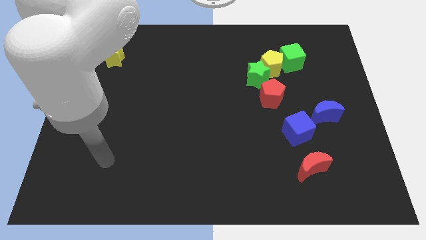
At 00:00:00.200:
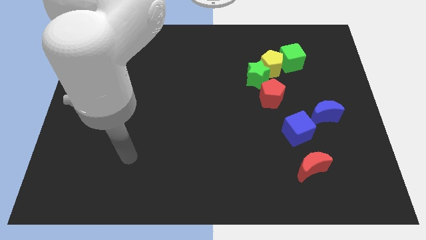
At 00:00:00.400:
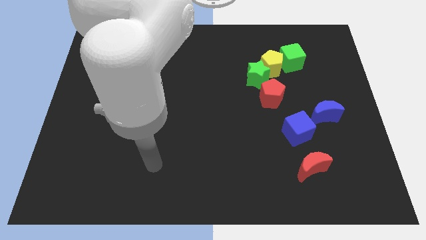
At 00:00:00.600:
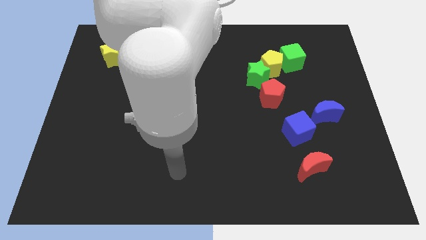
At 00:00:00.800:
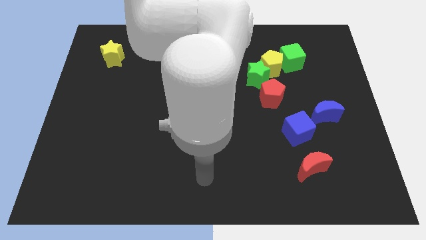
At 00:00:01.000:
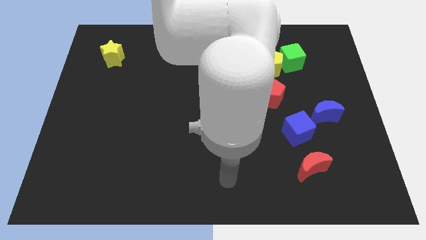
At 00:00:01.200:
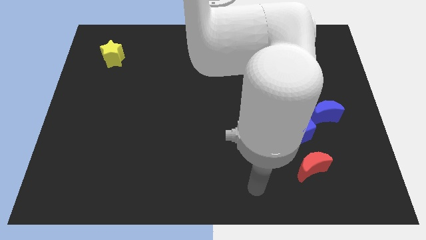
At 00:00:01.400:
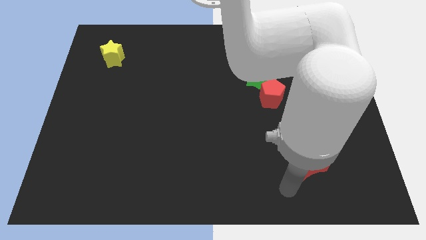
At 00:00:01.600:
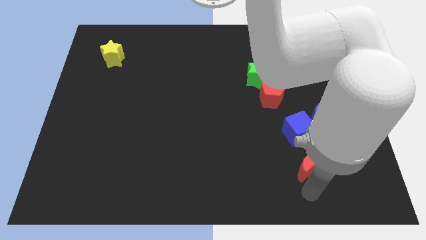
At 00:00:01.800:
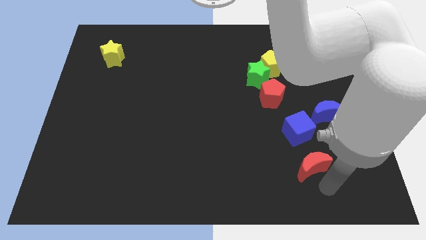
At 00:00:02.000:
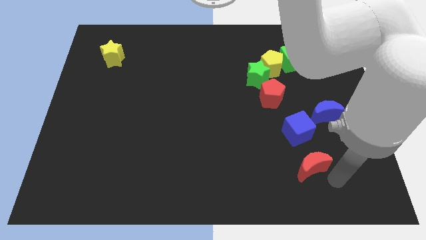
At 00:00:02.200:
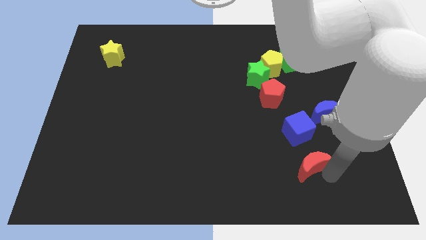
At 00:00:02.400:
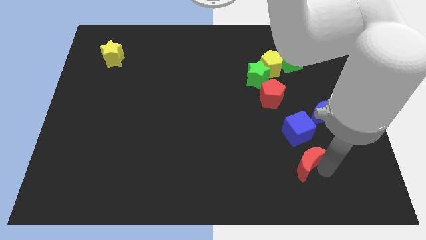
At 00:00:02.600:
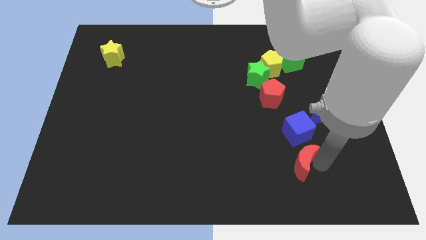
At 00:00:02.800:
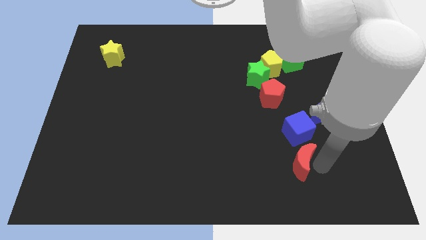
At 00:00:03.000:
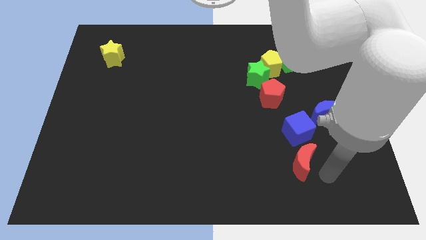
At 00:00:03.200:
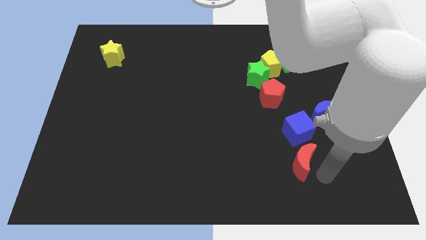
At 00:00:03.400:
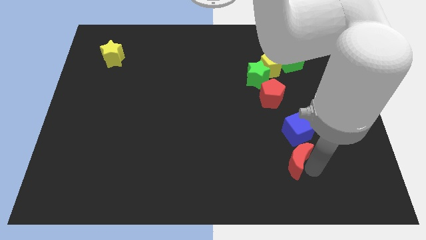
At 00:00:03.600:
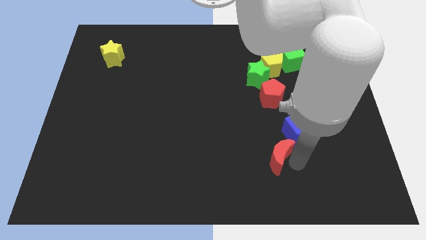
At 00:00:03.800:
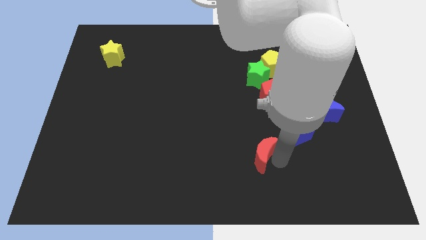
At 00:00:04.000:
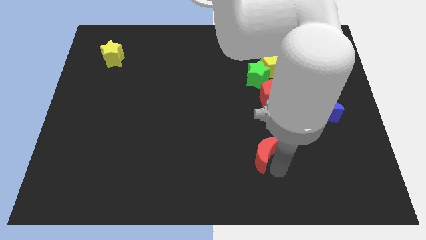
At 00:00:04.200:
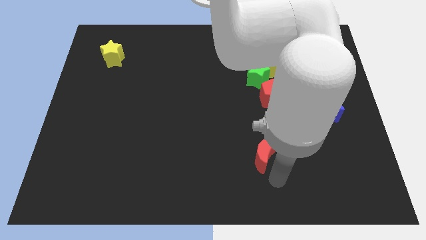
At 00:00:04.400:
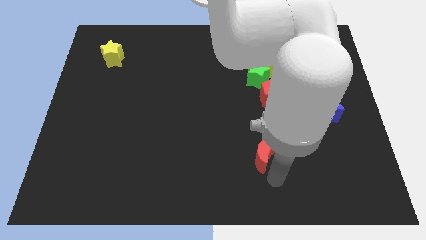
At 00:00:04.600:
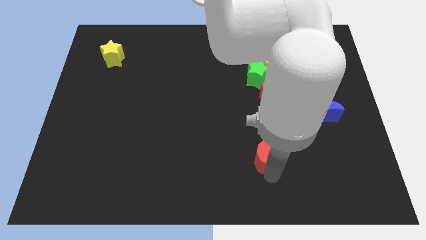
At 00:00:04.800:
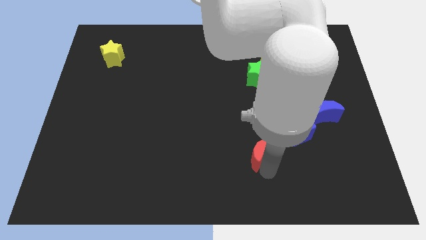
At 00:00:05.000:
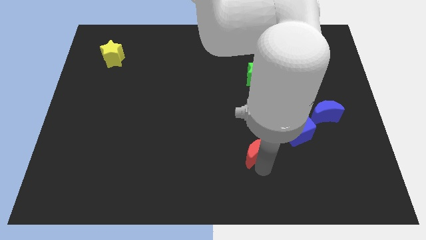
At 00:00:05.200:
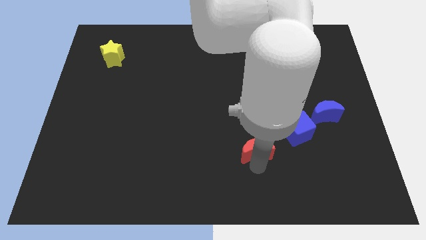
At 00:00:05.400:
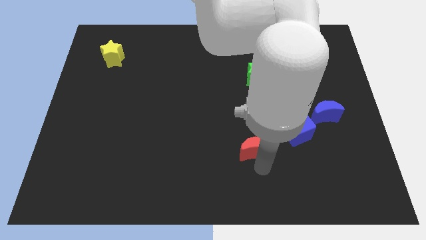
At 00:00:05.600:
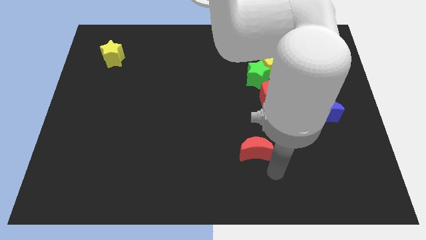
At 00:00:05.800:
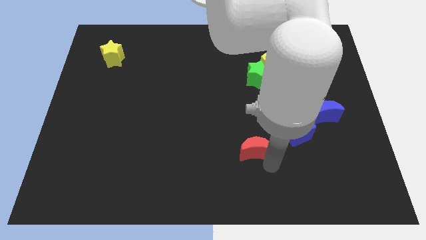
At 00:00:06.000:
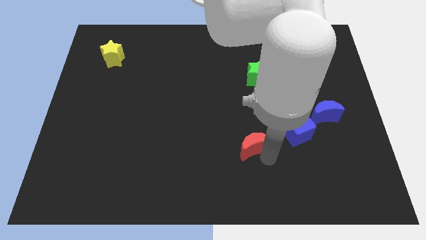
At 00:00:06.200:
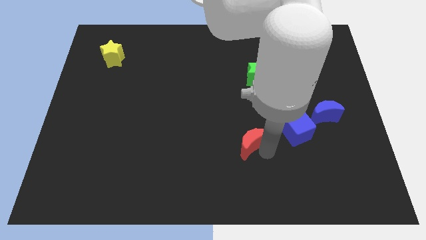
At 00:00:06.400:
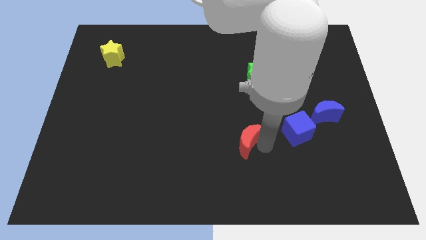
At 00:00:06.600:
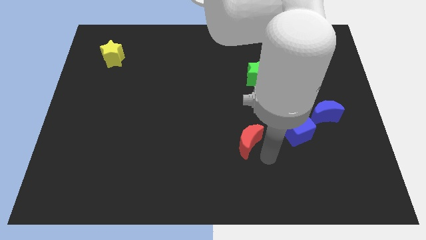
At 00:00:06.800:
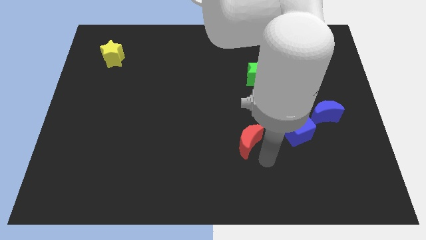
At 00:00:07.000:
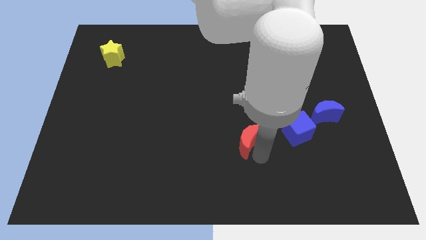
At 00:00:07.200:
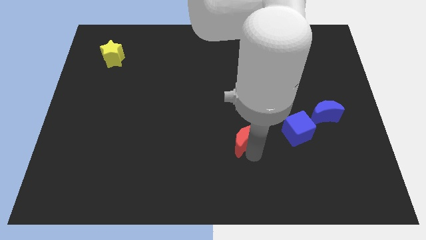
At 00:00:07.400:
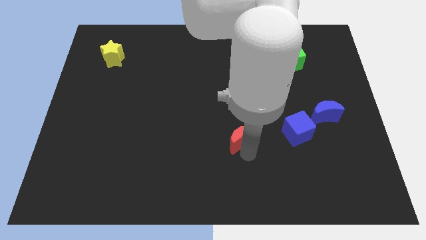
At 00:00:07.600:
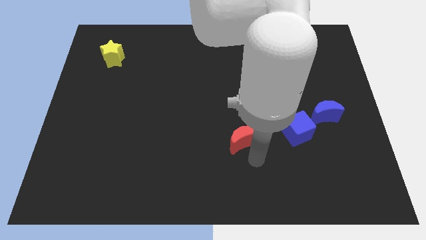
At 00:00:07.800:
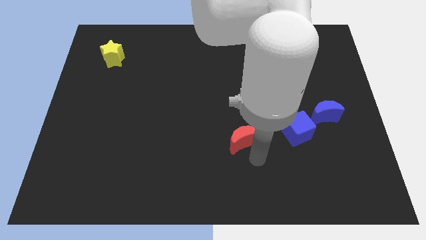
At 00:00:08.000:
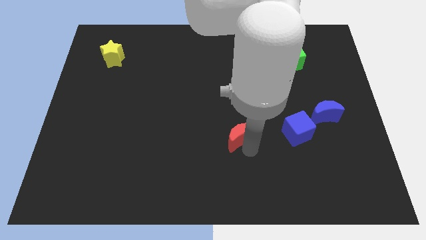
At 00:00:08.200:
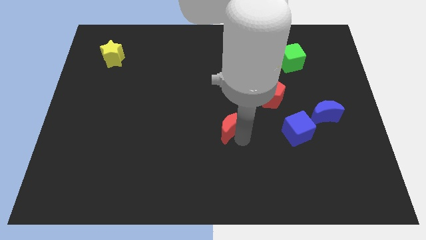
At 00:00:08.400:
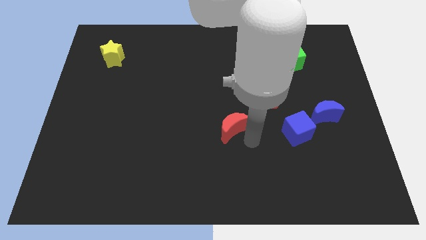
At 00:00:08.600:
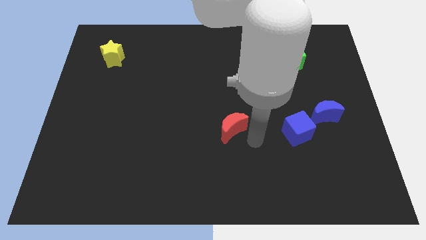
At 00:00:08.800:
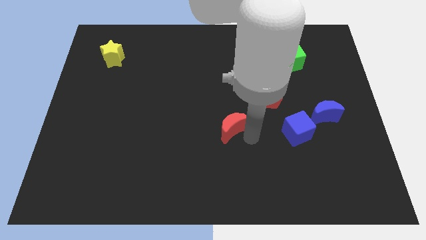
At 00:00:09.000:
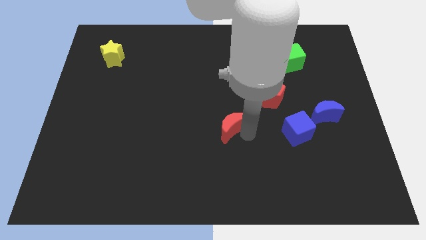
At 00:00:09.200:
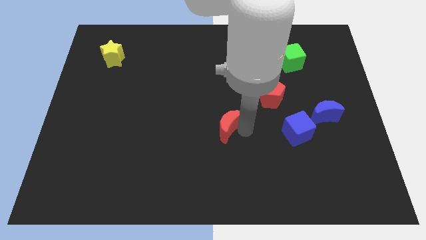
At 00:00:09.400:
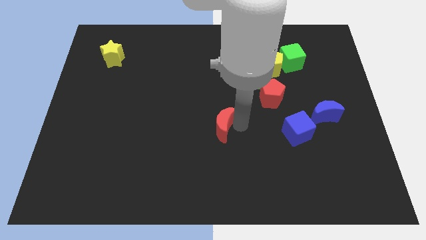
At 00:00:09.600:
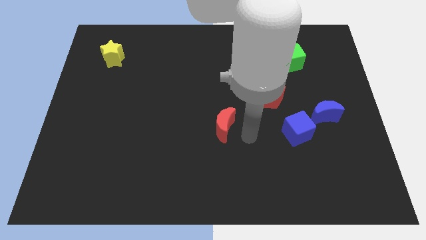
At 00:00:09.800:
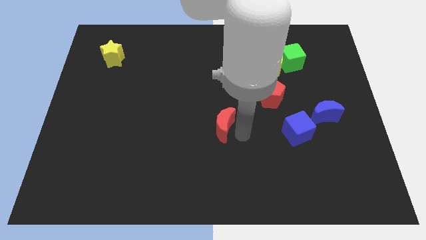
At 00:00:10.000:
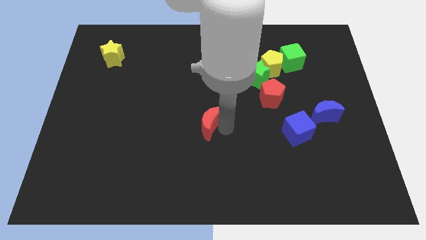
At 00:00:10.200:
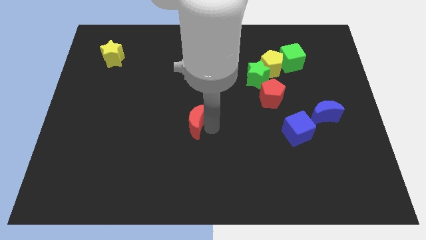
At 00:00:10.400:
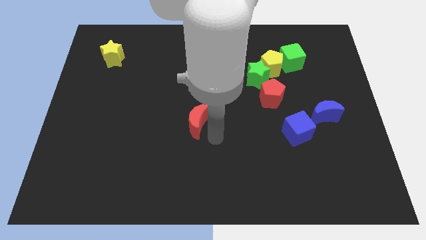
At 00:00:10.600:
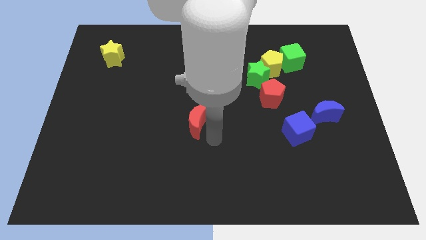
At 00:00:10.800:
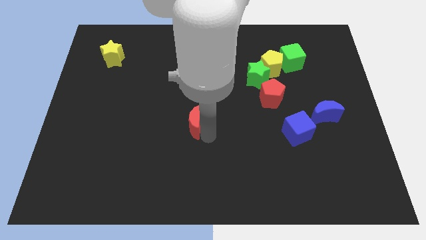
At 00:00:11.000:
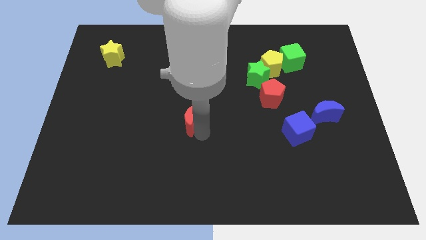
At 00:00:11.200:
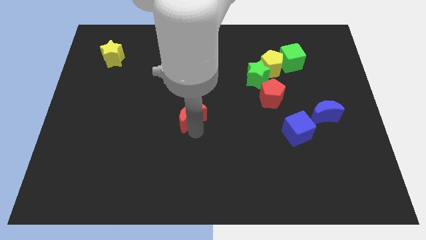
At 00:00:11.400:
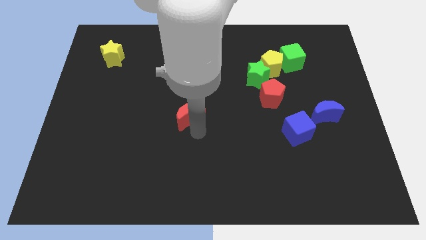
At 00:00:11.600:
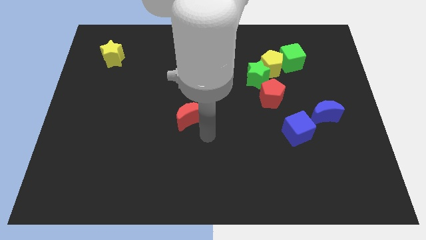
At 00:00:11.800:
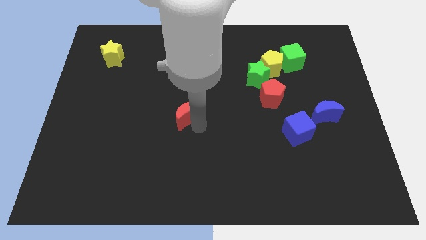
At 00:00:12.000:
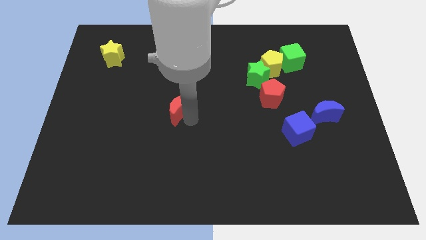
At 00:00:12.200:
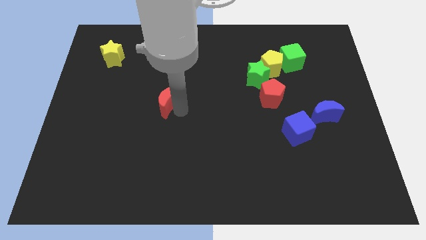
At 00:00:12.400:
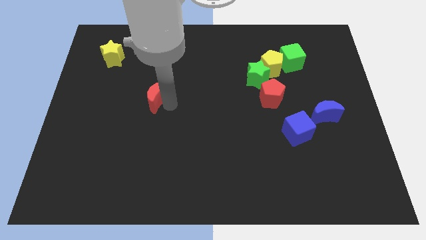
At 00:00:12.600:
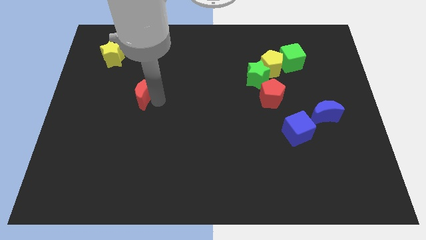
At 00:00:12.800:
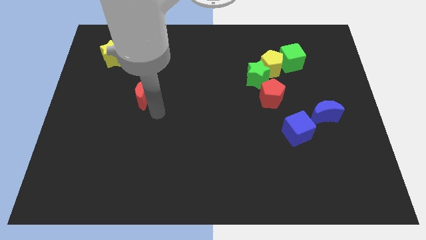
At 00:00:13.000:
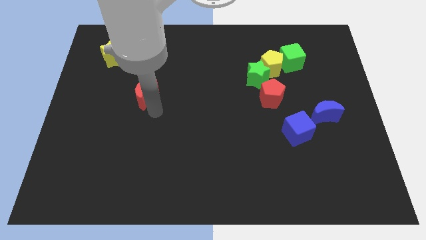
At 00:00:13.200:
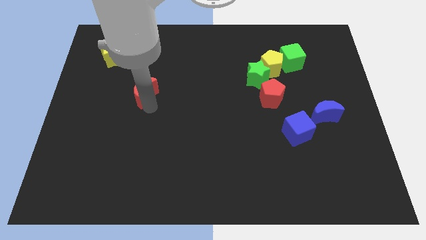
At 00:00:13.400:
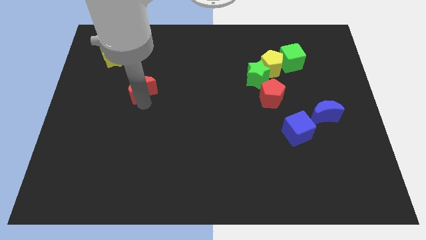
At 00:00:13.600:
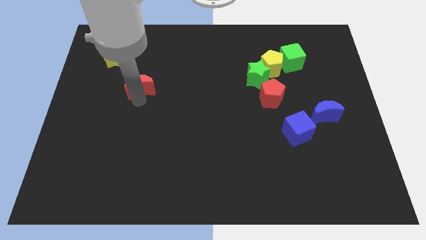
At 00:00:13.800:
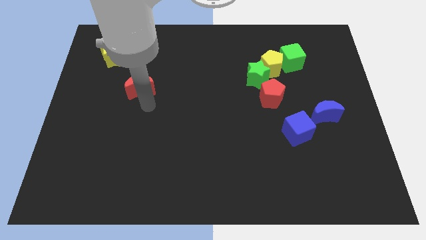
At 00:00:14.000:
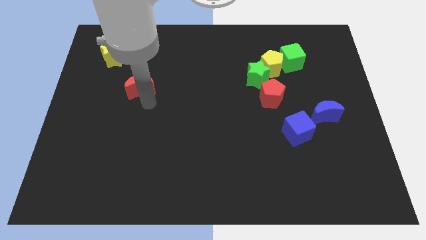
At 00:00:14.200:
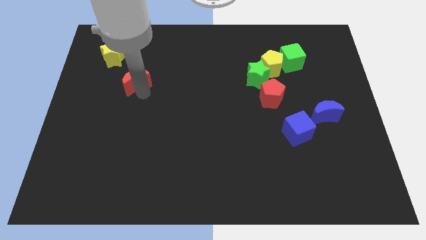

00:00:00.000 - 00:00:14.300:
put the red moon to the bottom right side of the yellow star
